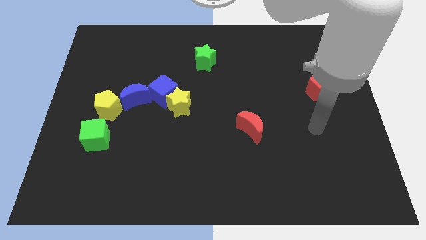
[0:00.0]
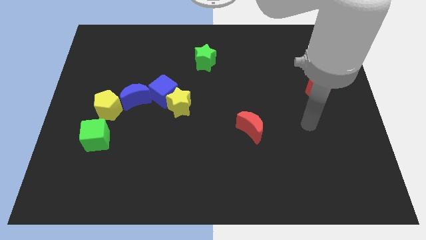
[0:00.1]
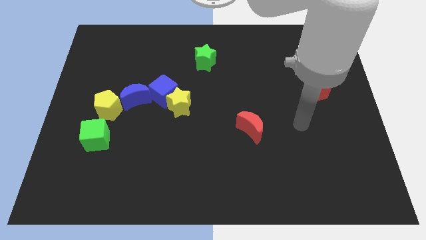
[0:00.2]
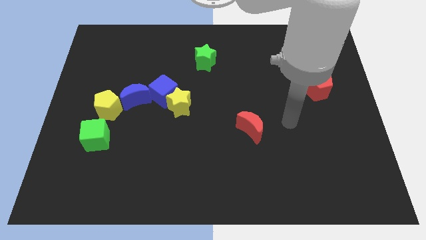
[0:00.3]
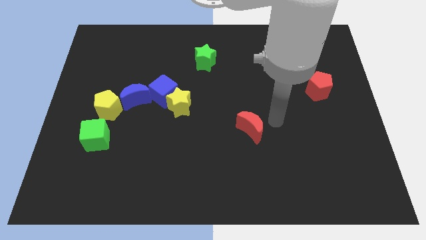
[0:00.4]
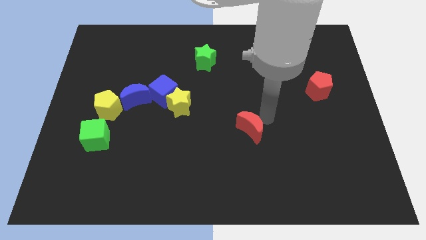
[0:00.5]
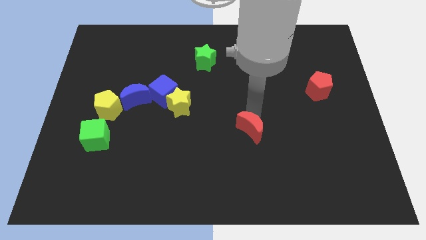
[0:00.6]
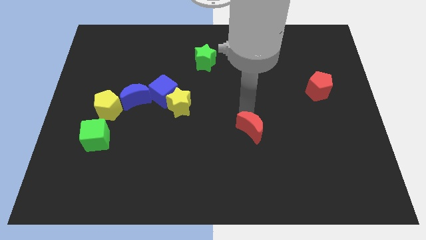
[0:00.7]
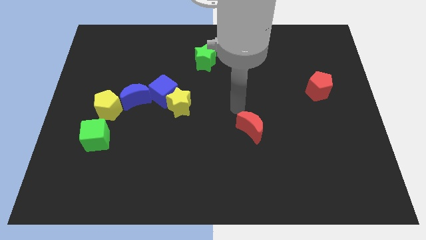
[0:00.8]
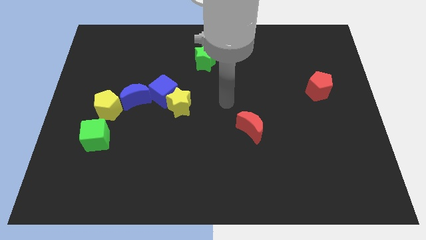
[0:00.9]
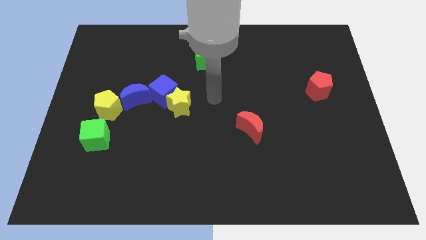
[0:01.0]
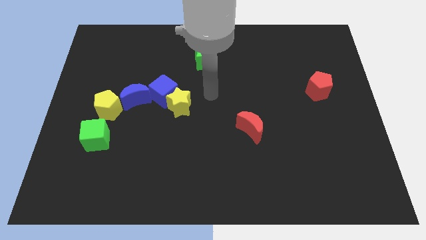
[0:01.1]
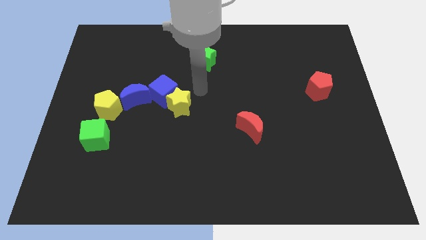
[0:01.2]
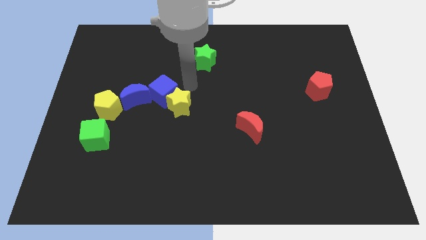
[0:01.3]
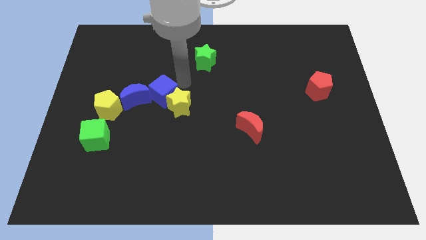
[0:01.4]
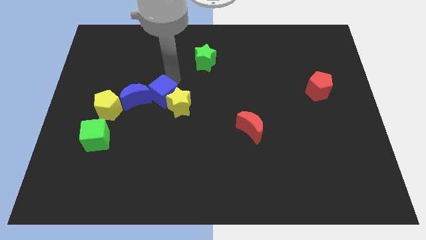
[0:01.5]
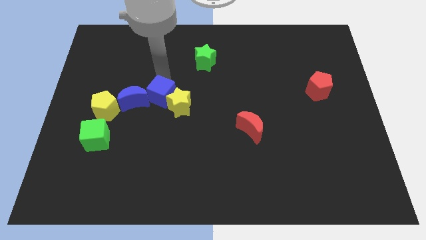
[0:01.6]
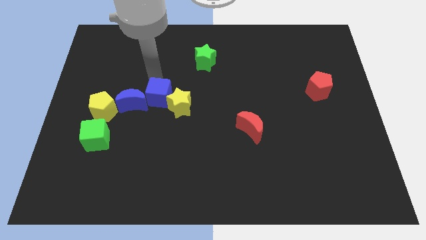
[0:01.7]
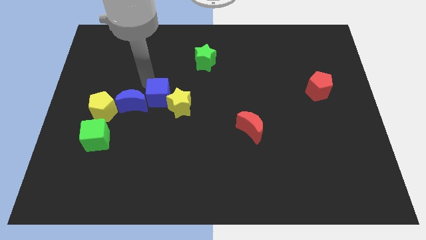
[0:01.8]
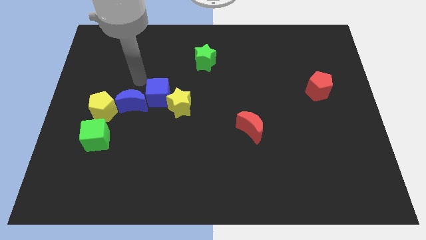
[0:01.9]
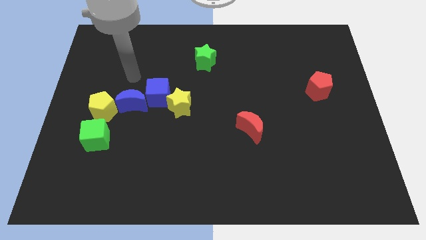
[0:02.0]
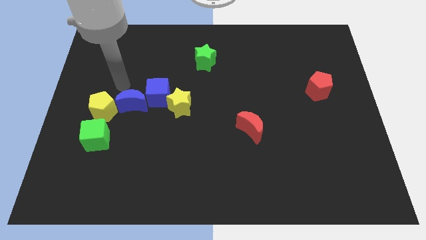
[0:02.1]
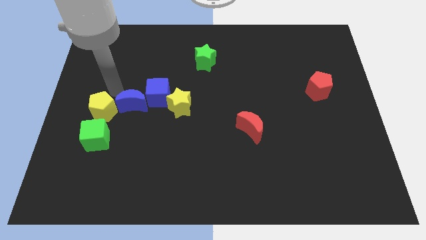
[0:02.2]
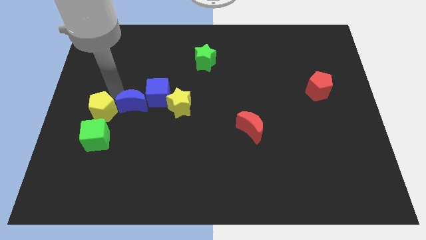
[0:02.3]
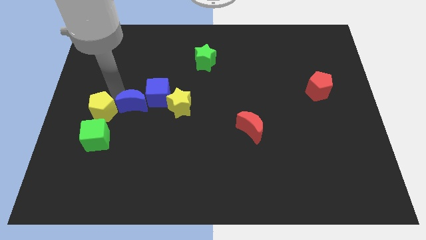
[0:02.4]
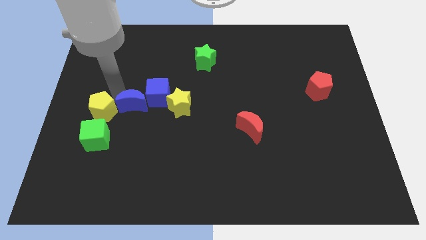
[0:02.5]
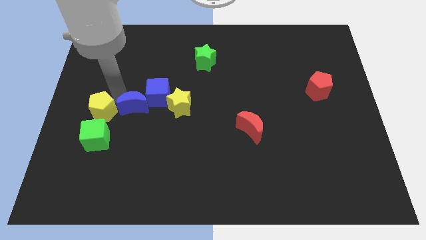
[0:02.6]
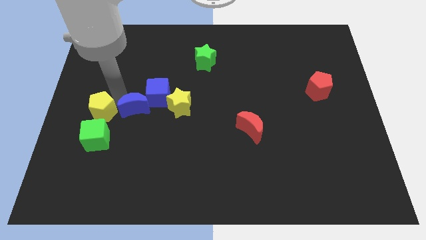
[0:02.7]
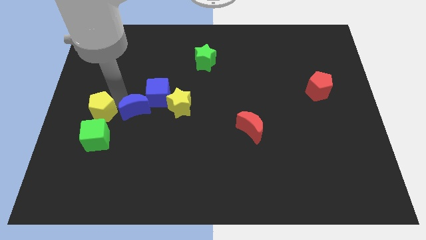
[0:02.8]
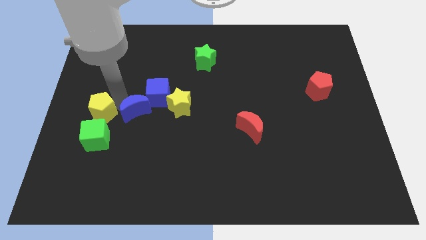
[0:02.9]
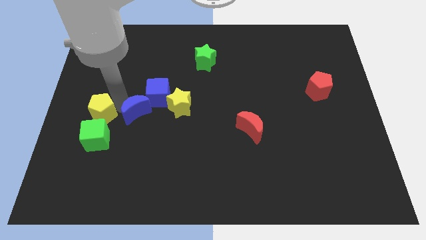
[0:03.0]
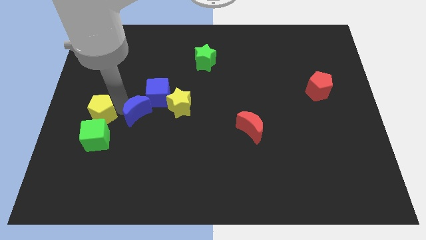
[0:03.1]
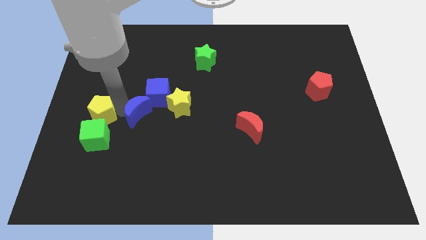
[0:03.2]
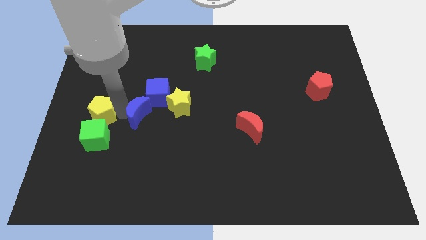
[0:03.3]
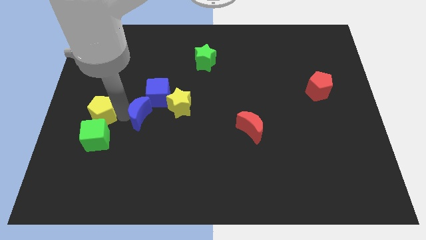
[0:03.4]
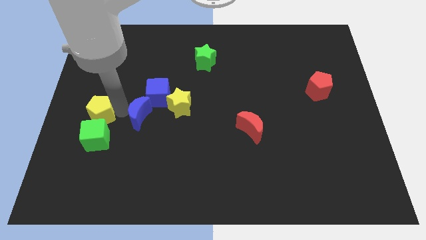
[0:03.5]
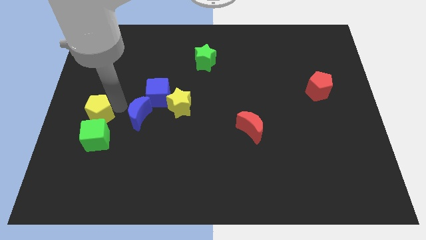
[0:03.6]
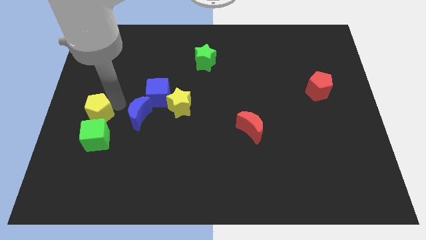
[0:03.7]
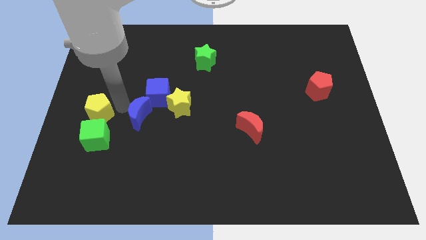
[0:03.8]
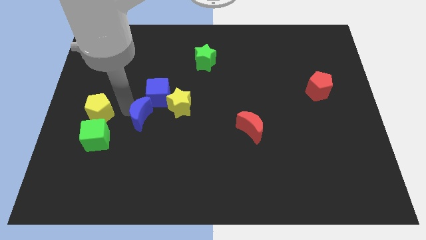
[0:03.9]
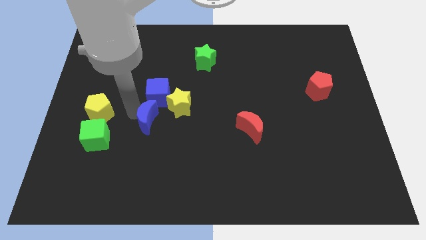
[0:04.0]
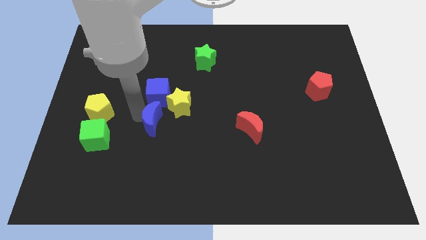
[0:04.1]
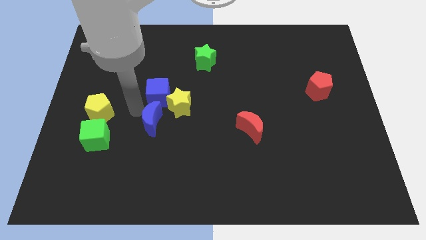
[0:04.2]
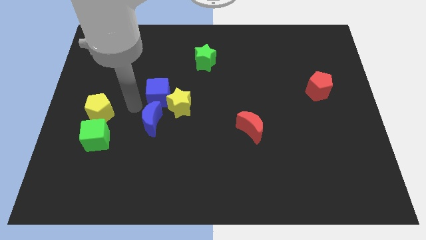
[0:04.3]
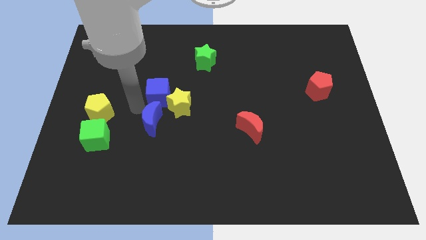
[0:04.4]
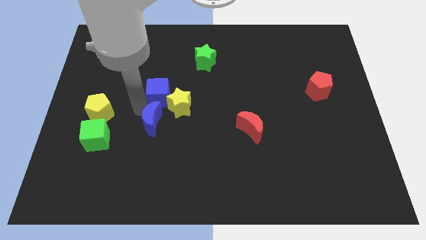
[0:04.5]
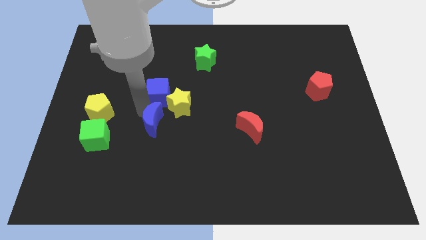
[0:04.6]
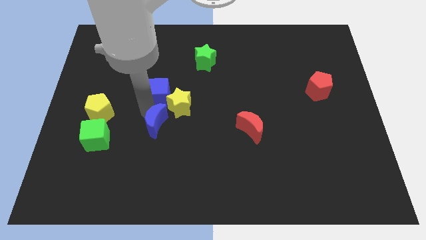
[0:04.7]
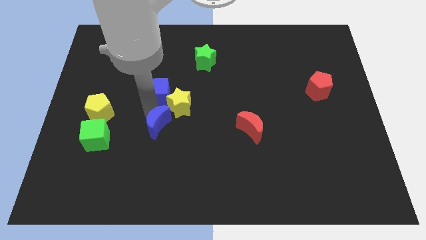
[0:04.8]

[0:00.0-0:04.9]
slide the blue moon to the bottom of the yellow star

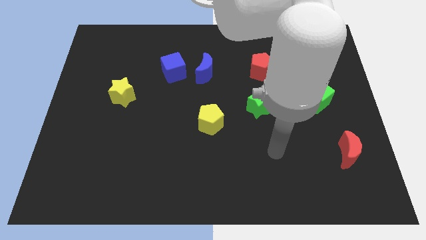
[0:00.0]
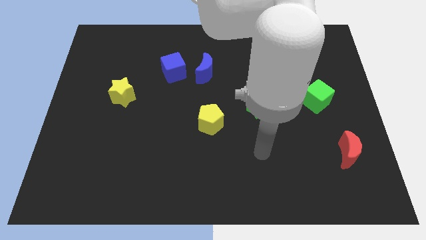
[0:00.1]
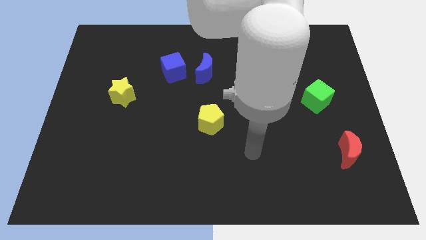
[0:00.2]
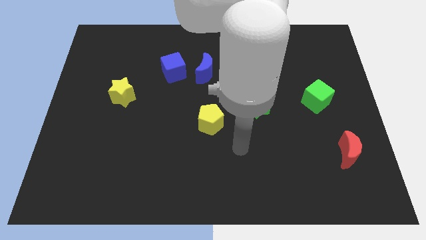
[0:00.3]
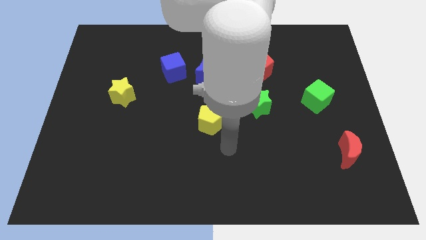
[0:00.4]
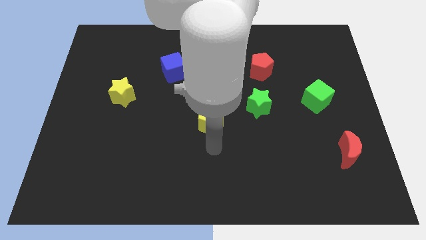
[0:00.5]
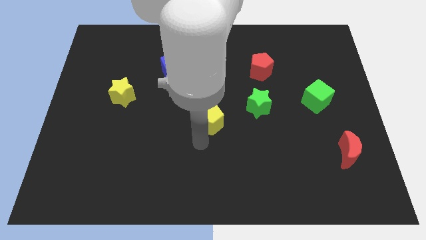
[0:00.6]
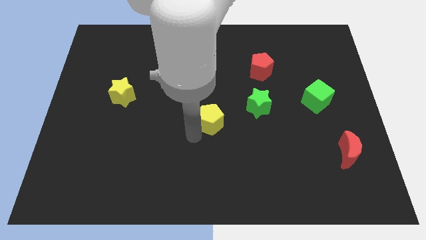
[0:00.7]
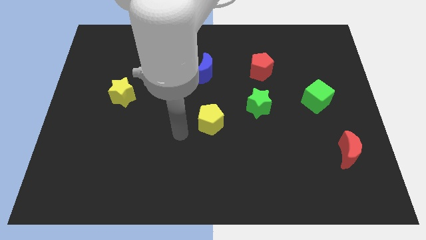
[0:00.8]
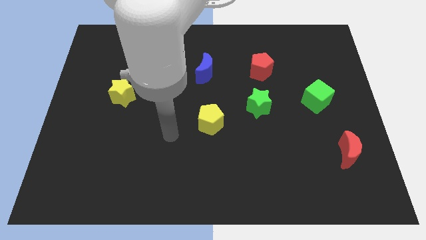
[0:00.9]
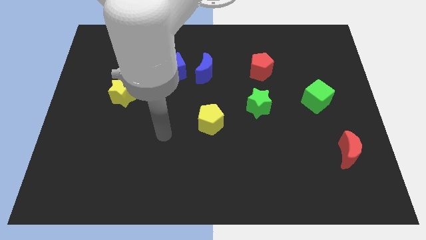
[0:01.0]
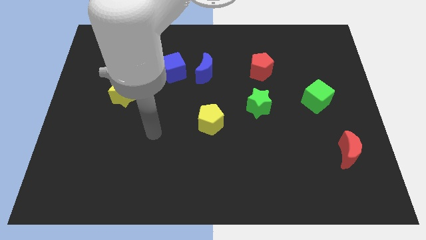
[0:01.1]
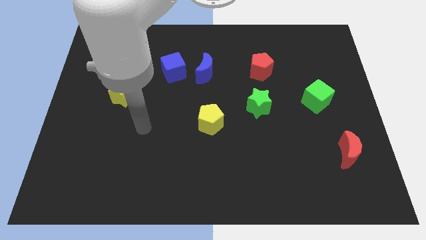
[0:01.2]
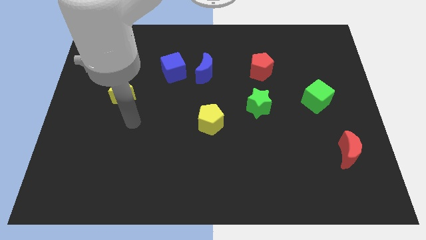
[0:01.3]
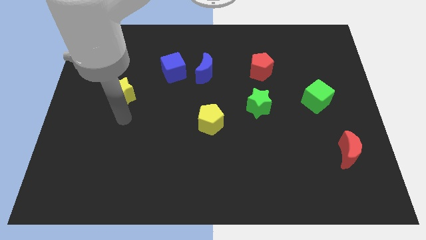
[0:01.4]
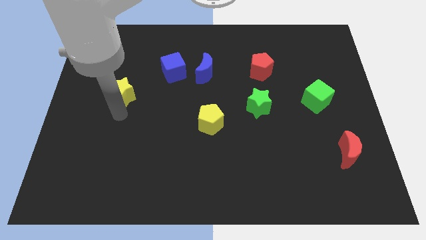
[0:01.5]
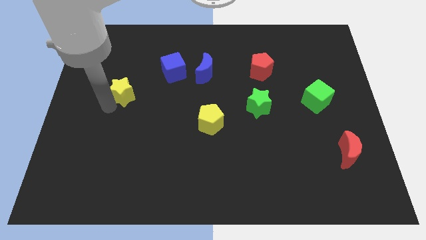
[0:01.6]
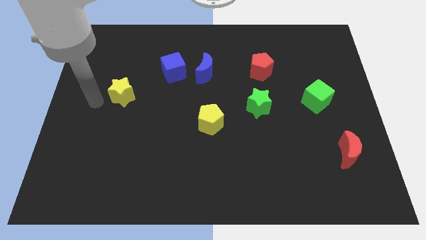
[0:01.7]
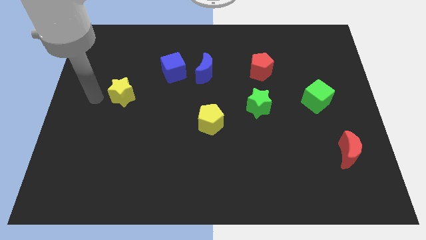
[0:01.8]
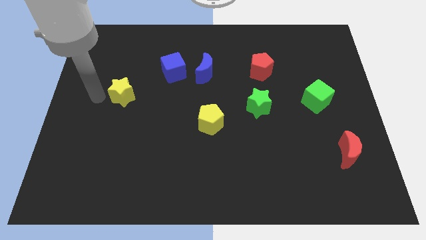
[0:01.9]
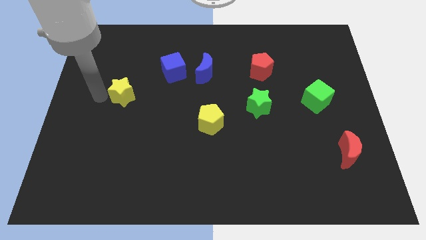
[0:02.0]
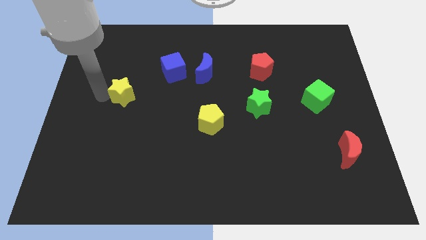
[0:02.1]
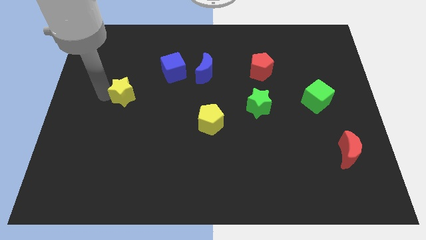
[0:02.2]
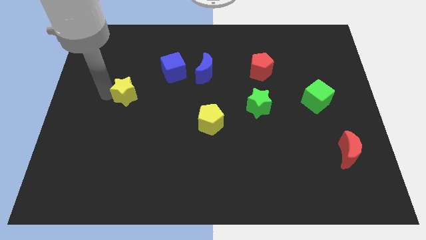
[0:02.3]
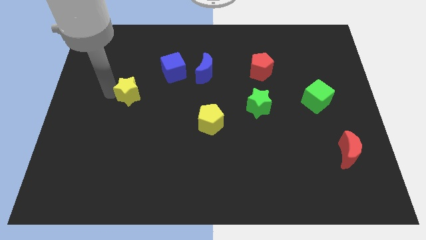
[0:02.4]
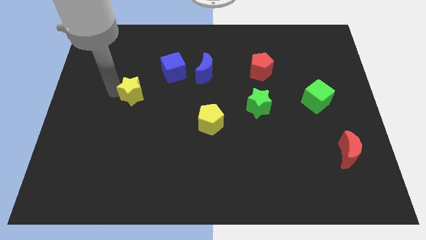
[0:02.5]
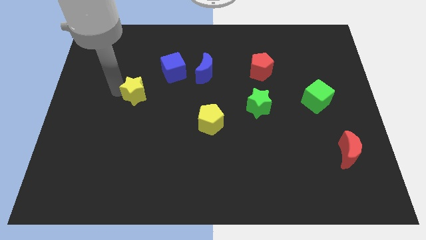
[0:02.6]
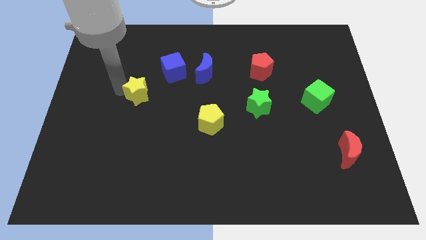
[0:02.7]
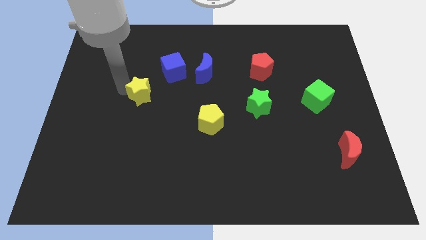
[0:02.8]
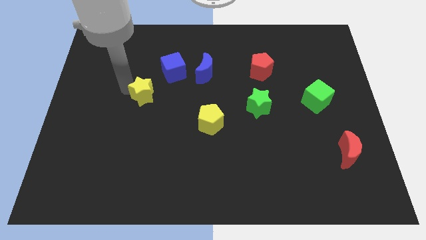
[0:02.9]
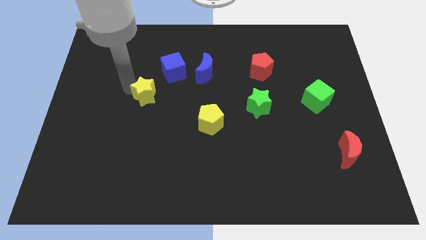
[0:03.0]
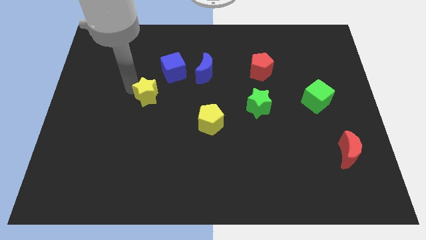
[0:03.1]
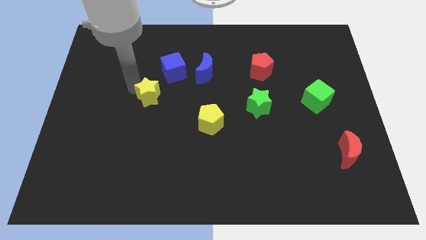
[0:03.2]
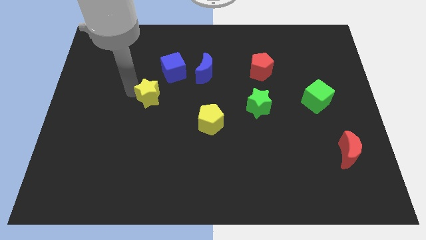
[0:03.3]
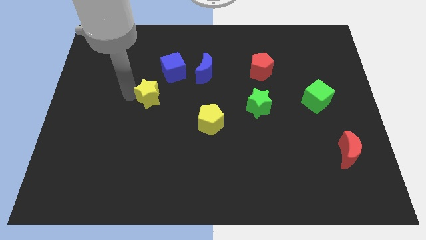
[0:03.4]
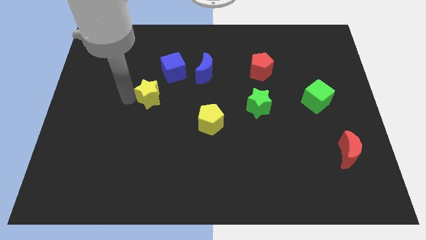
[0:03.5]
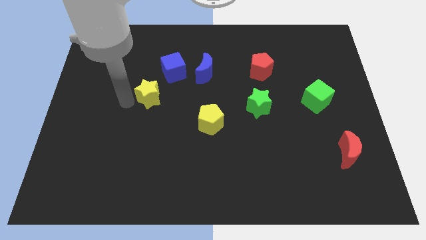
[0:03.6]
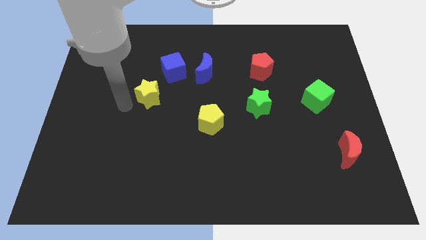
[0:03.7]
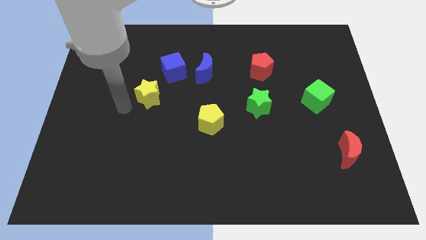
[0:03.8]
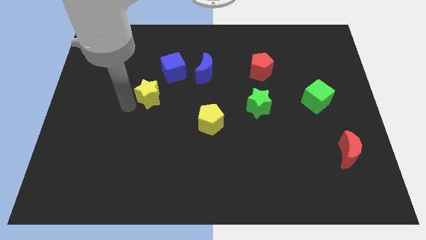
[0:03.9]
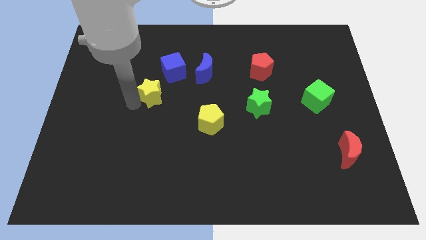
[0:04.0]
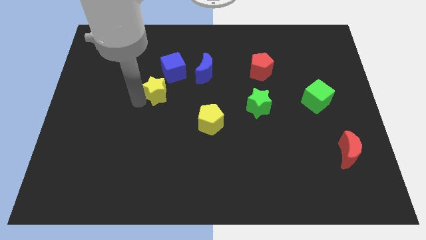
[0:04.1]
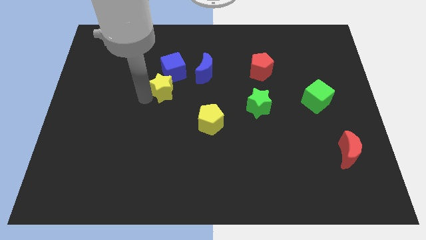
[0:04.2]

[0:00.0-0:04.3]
push the yellow star diagonally down and to the left of the blue moon
